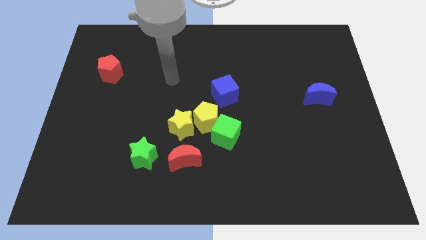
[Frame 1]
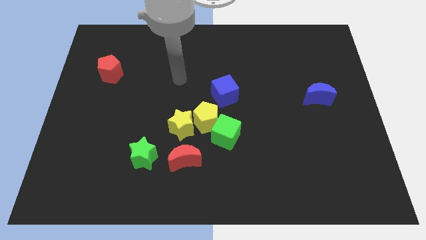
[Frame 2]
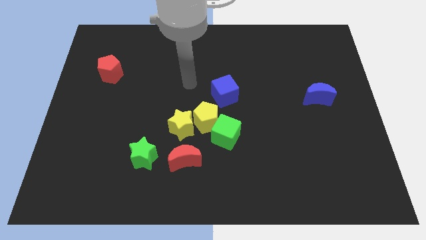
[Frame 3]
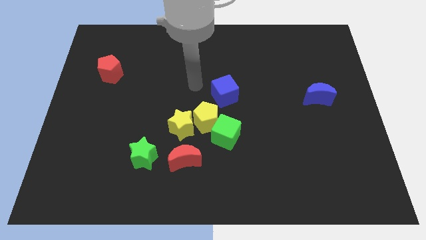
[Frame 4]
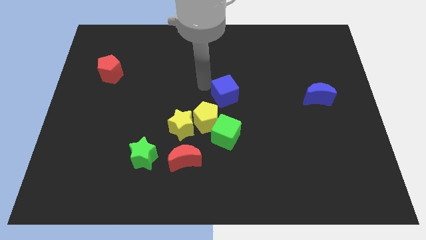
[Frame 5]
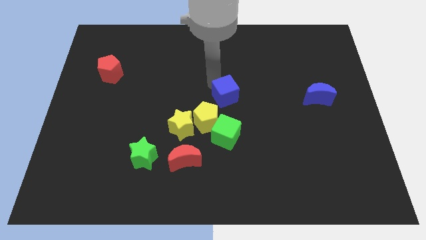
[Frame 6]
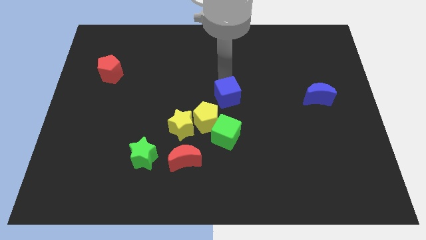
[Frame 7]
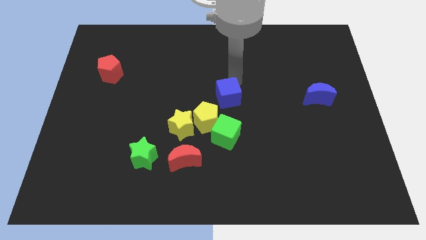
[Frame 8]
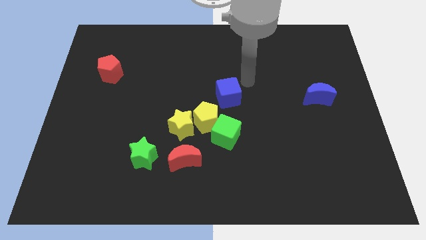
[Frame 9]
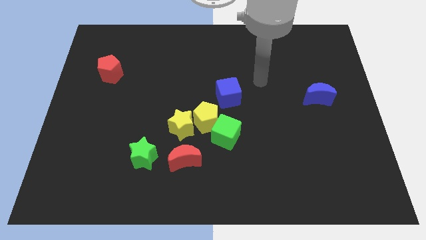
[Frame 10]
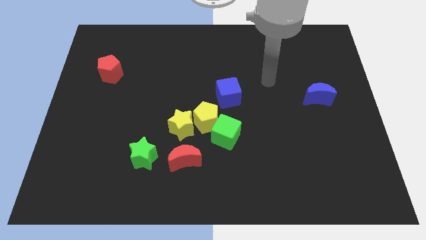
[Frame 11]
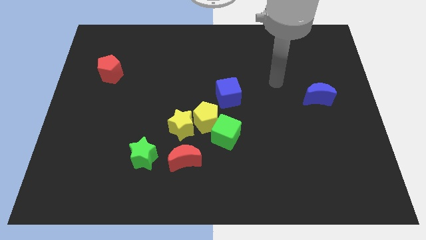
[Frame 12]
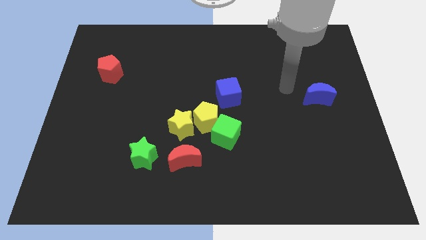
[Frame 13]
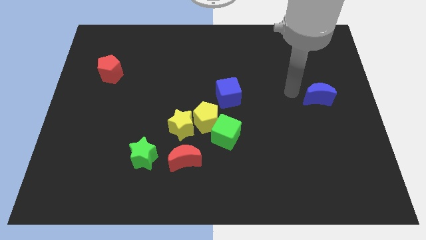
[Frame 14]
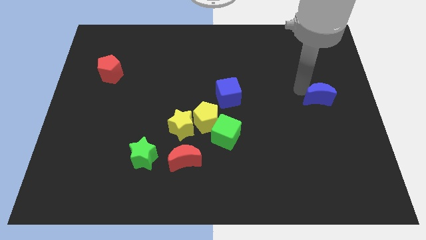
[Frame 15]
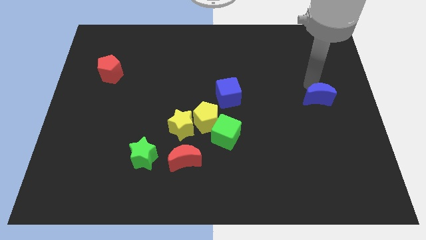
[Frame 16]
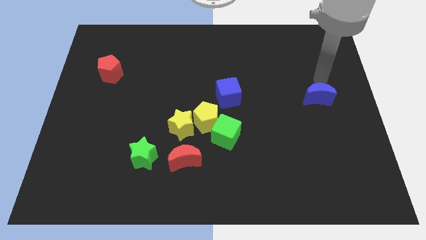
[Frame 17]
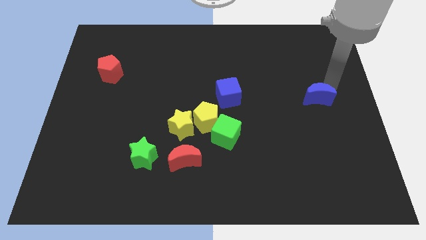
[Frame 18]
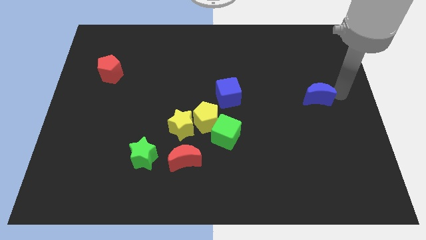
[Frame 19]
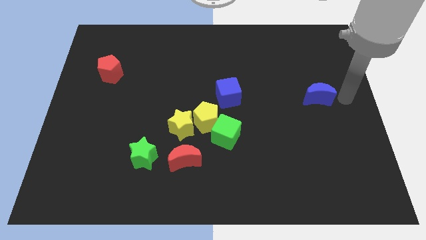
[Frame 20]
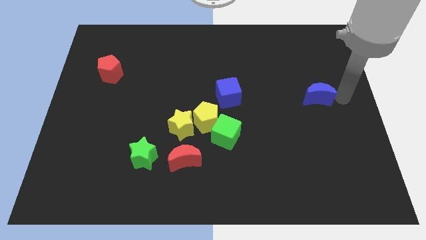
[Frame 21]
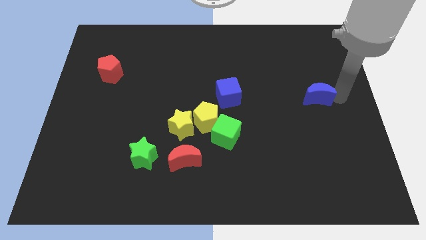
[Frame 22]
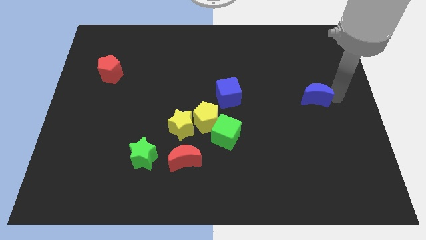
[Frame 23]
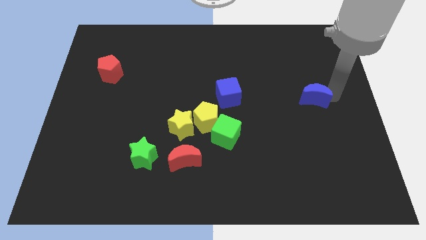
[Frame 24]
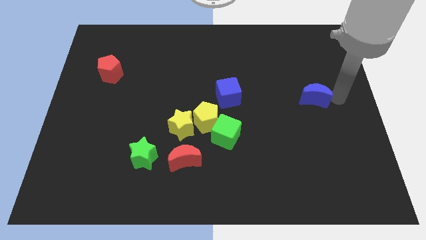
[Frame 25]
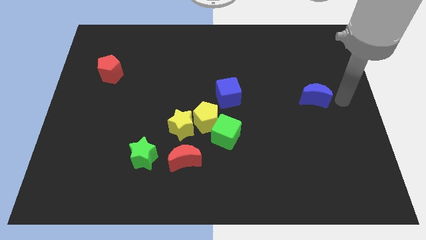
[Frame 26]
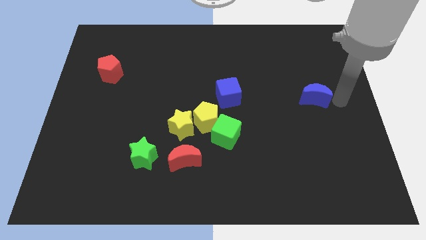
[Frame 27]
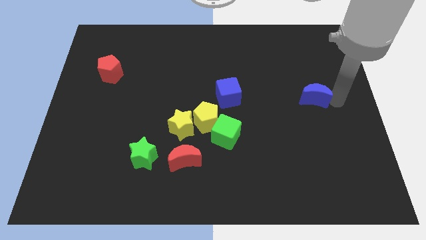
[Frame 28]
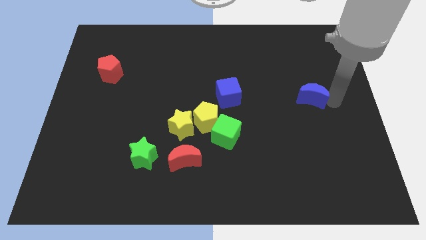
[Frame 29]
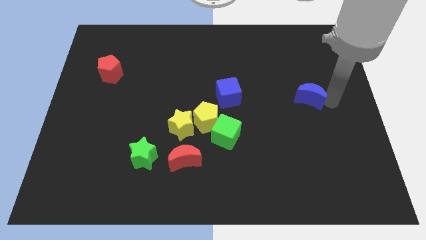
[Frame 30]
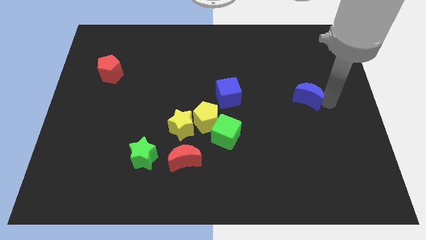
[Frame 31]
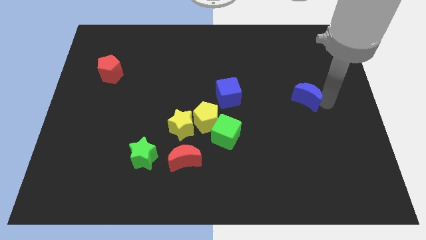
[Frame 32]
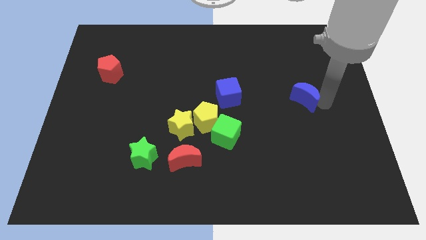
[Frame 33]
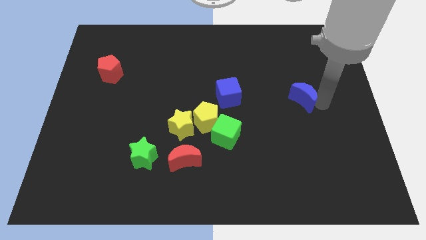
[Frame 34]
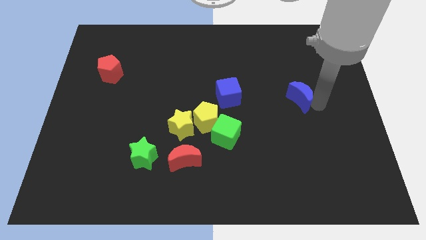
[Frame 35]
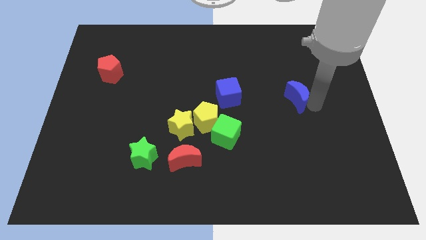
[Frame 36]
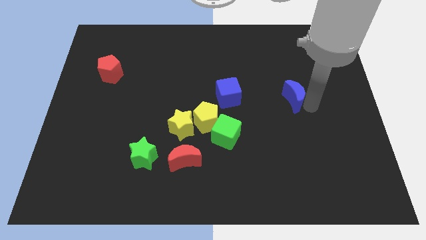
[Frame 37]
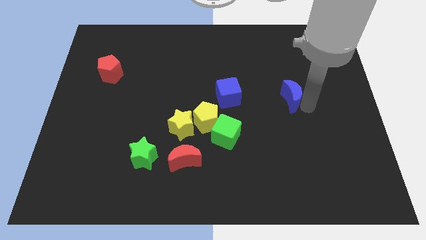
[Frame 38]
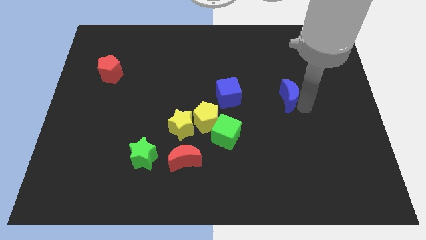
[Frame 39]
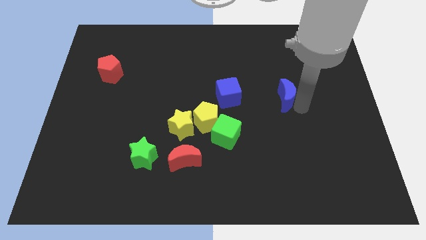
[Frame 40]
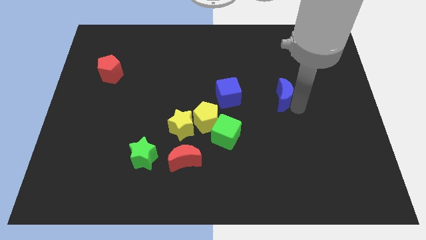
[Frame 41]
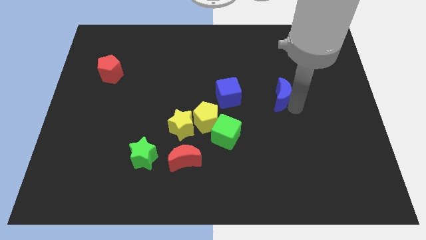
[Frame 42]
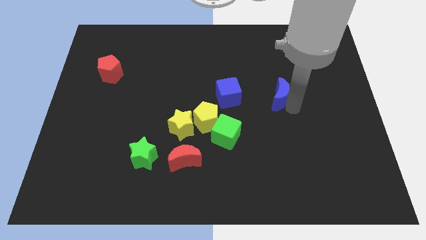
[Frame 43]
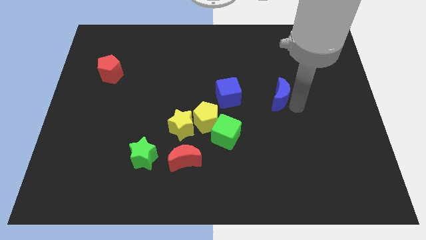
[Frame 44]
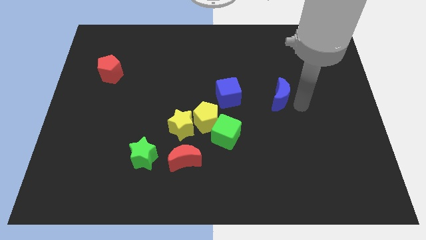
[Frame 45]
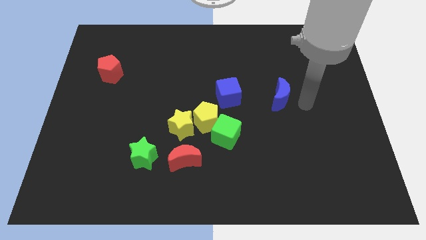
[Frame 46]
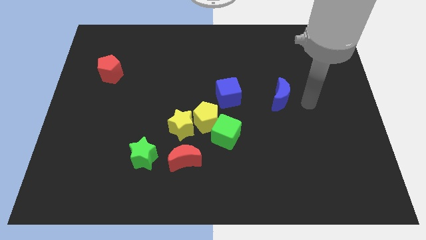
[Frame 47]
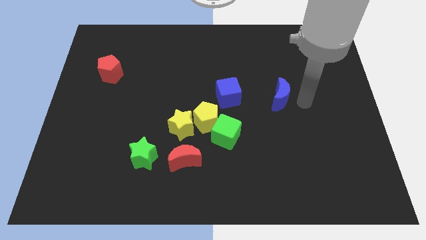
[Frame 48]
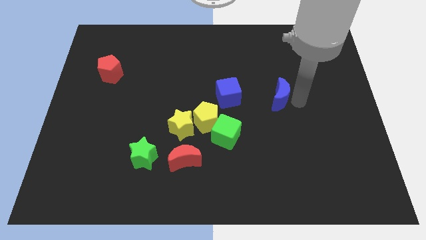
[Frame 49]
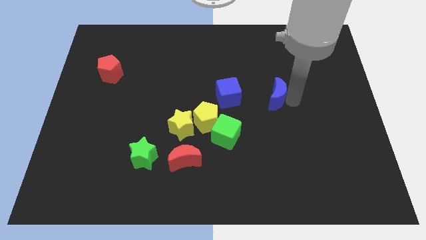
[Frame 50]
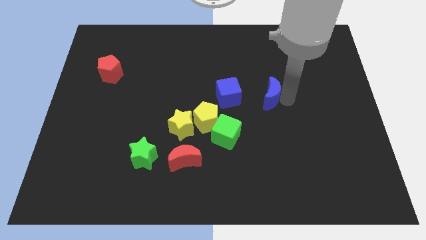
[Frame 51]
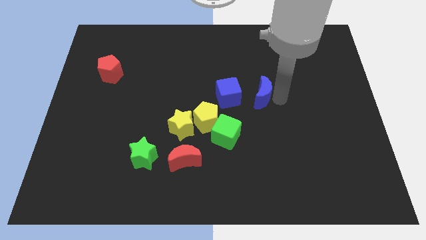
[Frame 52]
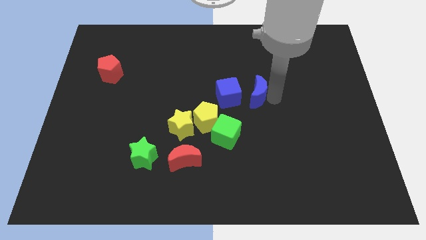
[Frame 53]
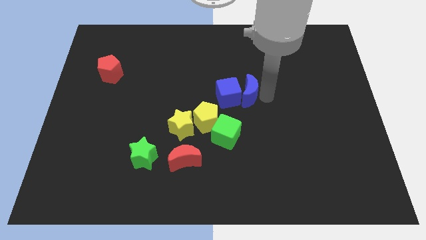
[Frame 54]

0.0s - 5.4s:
slide the blue moon to the blue cube

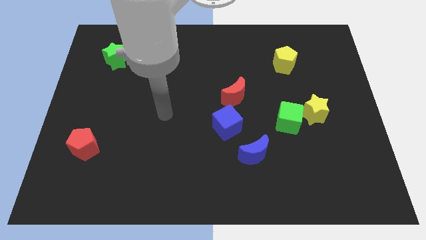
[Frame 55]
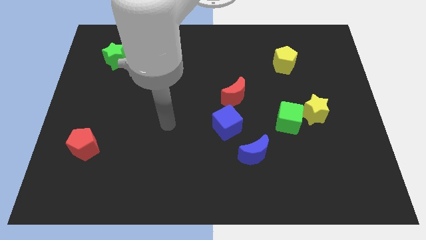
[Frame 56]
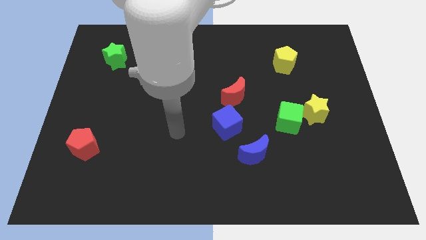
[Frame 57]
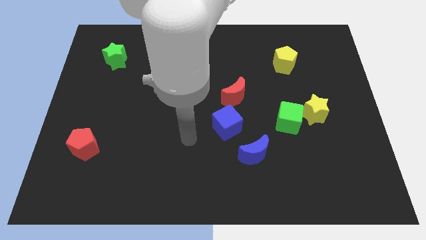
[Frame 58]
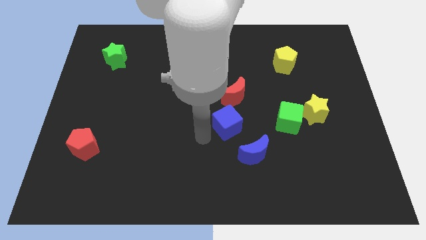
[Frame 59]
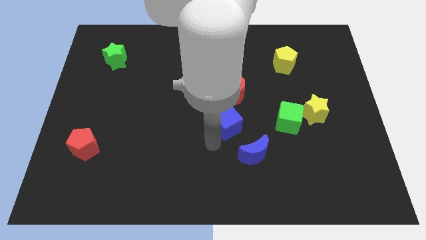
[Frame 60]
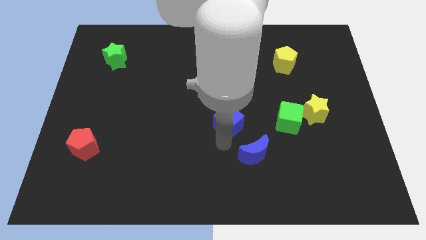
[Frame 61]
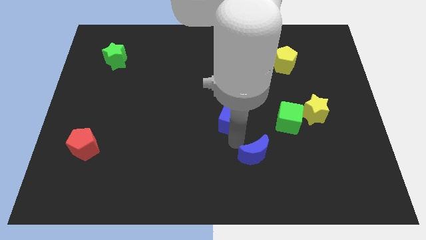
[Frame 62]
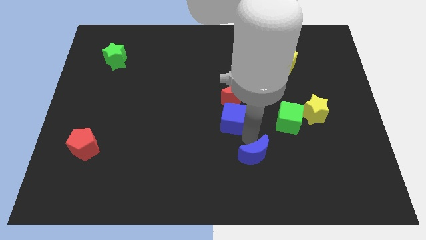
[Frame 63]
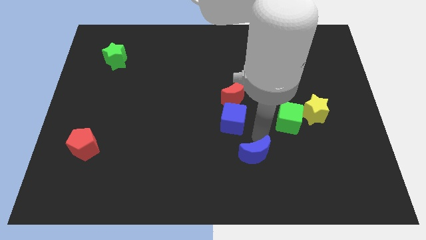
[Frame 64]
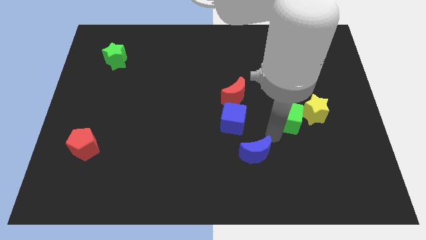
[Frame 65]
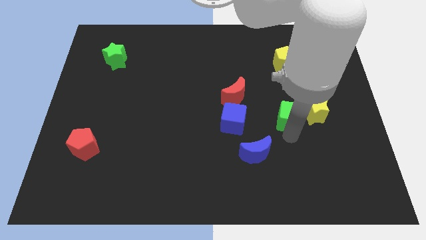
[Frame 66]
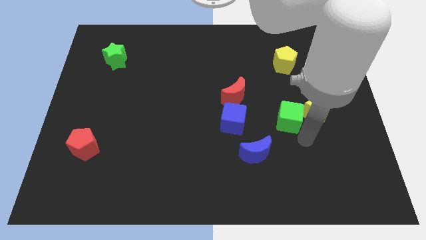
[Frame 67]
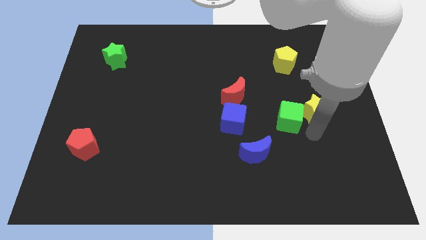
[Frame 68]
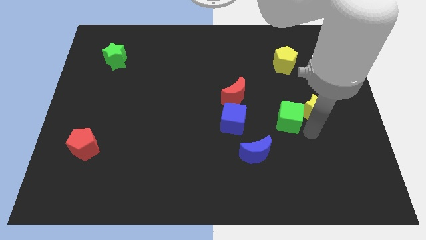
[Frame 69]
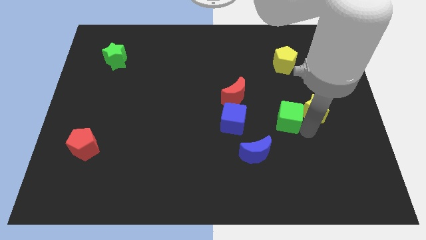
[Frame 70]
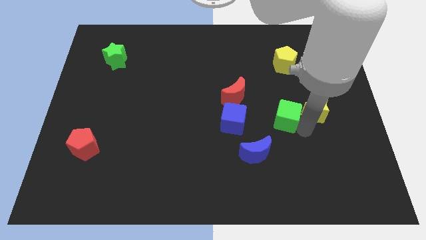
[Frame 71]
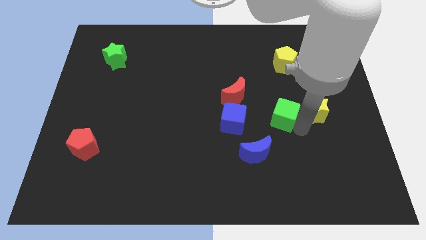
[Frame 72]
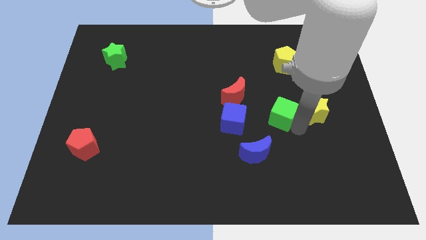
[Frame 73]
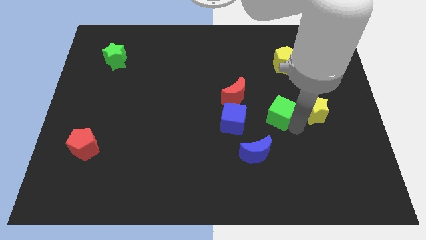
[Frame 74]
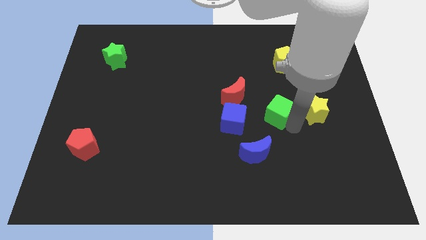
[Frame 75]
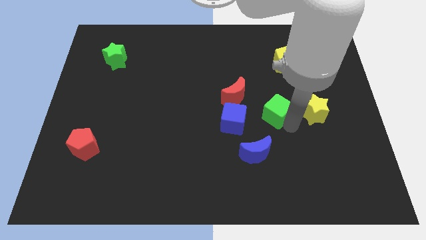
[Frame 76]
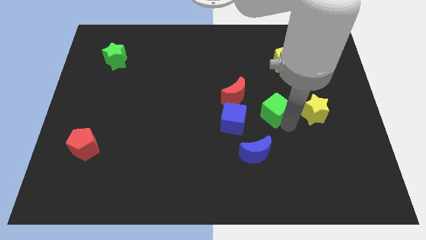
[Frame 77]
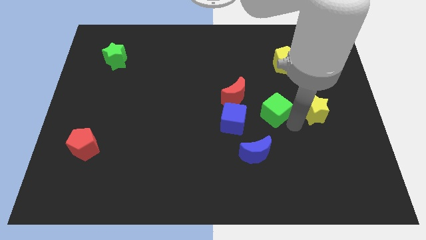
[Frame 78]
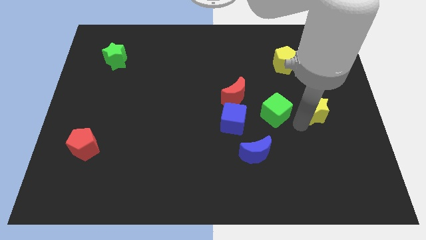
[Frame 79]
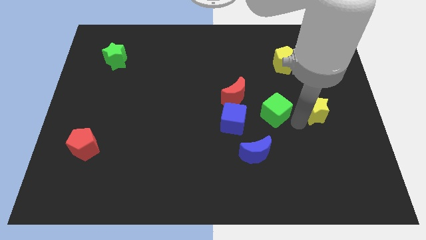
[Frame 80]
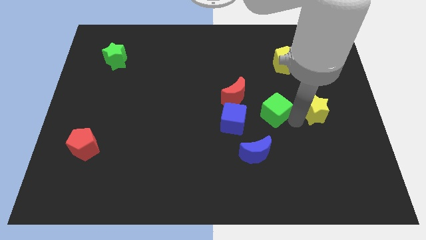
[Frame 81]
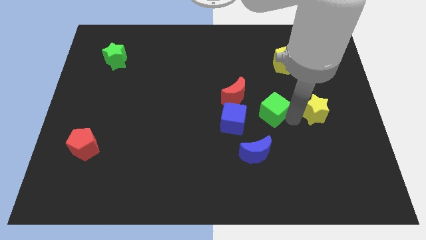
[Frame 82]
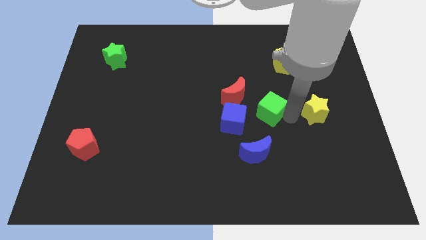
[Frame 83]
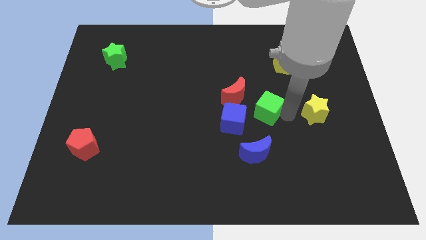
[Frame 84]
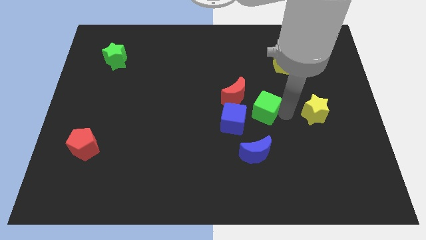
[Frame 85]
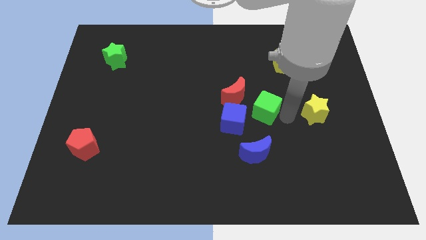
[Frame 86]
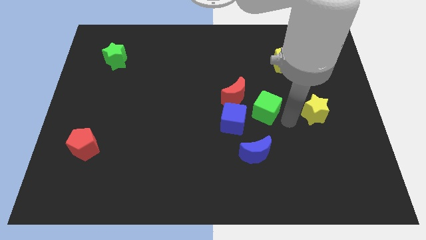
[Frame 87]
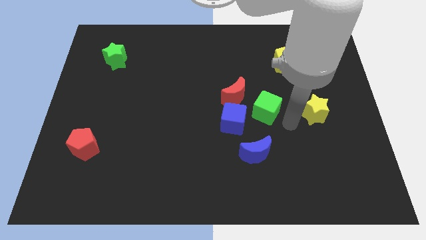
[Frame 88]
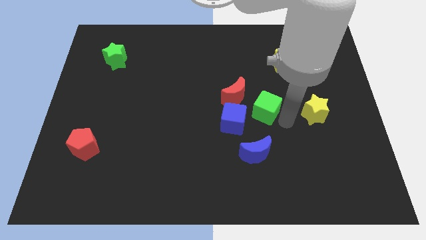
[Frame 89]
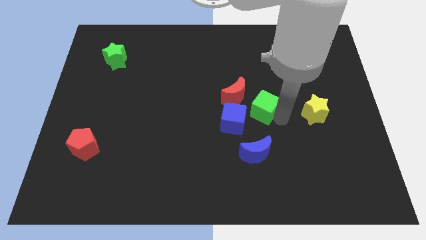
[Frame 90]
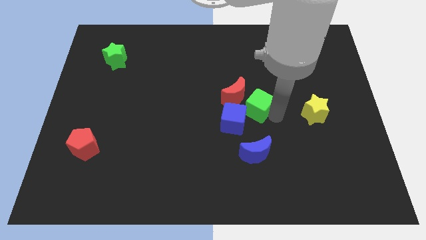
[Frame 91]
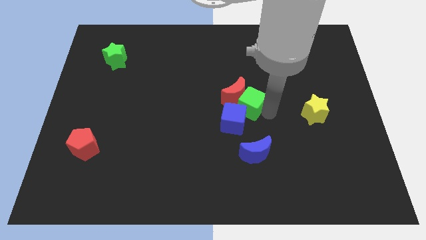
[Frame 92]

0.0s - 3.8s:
push the green cube to the red moon
